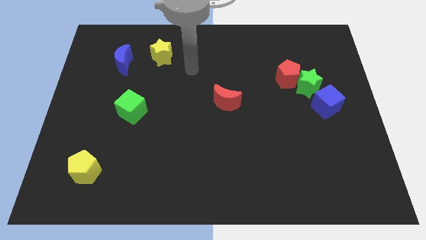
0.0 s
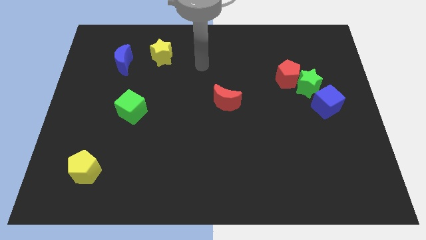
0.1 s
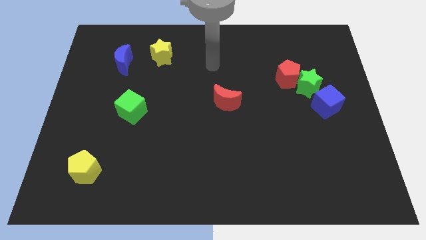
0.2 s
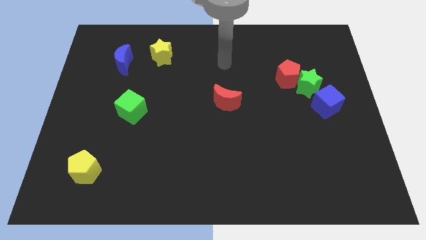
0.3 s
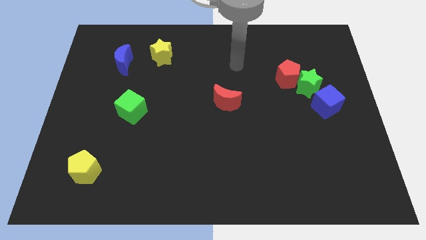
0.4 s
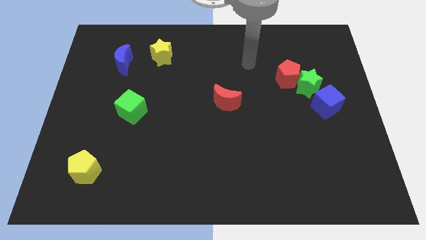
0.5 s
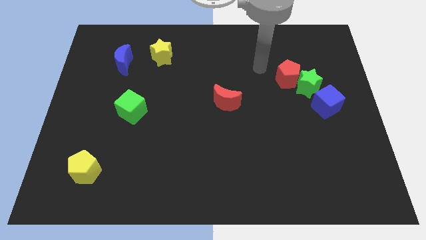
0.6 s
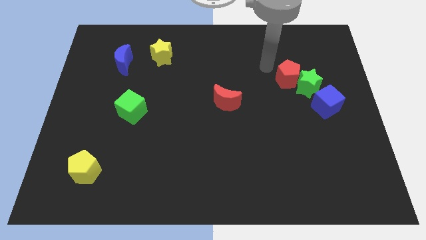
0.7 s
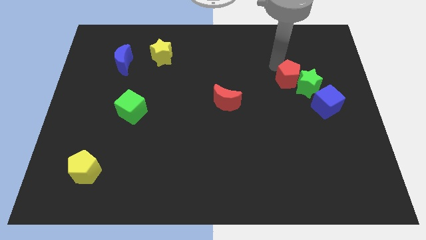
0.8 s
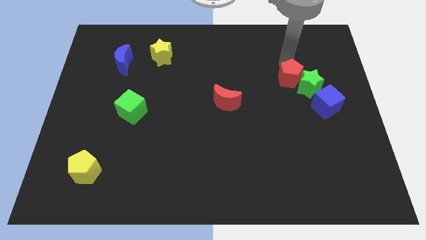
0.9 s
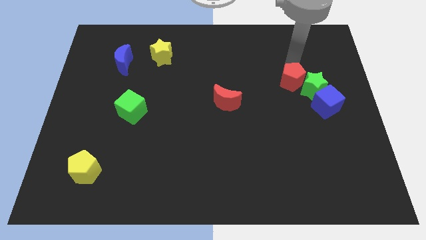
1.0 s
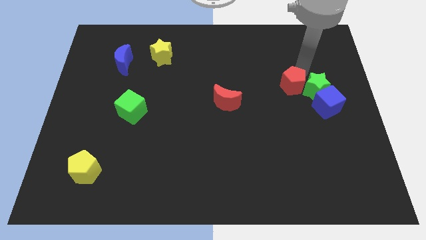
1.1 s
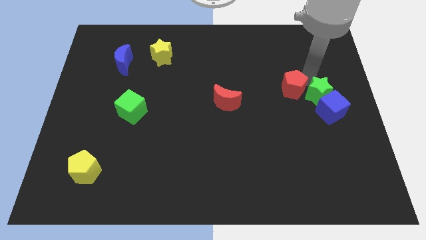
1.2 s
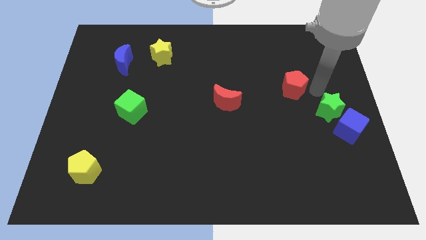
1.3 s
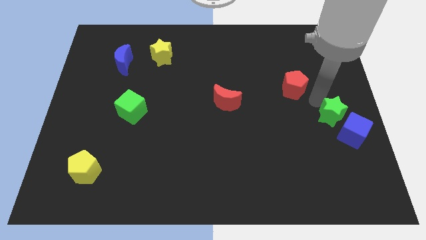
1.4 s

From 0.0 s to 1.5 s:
separate the red pentagon from the green star

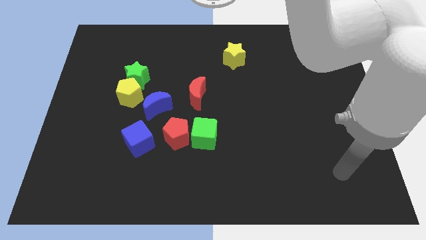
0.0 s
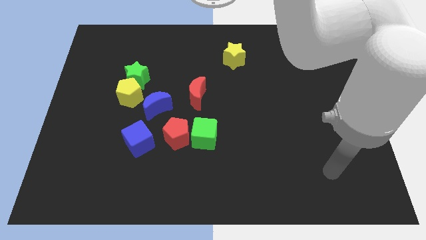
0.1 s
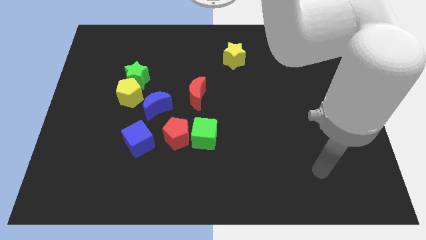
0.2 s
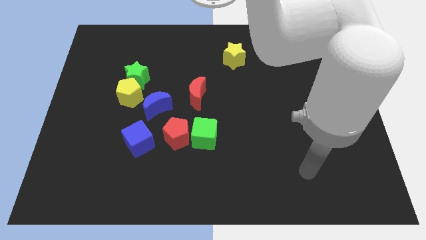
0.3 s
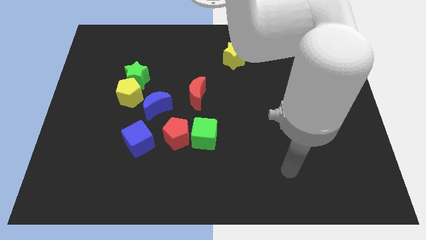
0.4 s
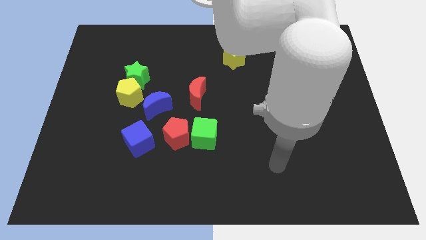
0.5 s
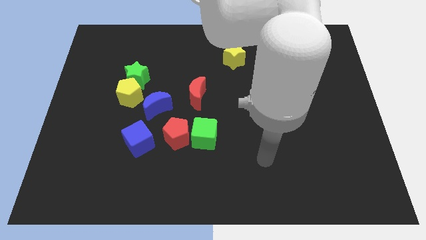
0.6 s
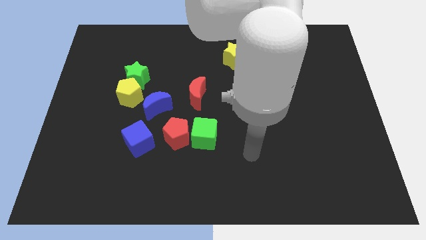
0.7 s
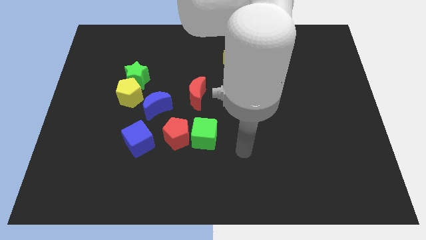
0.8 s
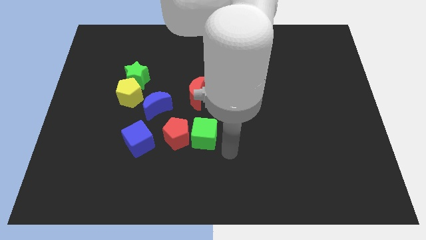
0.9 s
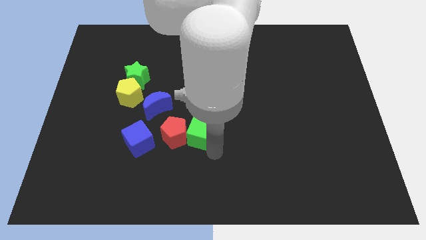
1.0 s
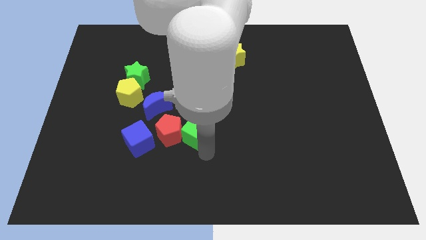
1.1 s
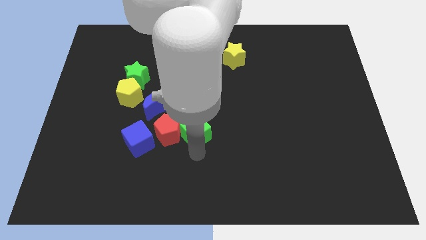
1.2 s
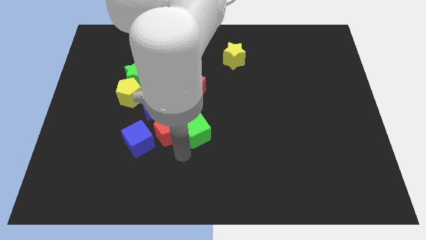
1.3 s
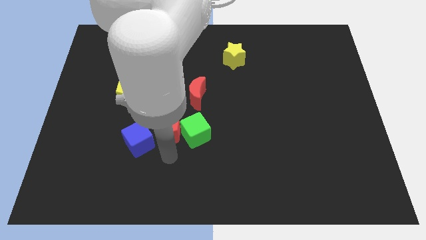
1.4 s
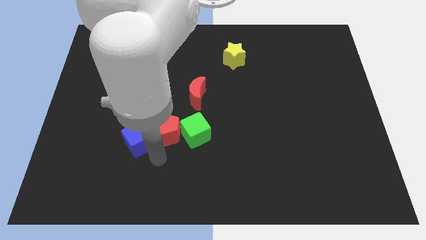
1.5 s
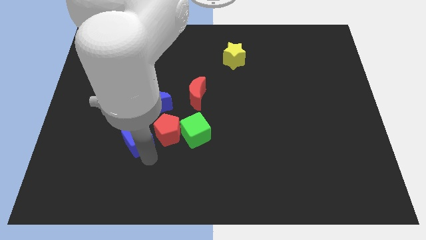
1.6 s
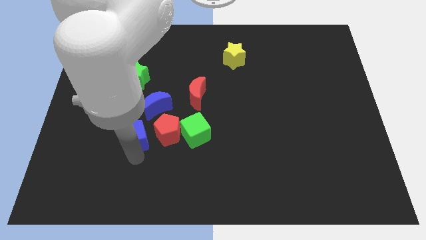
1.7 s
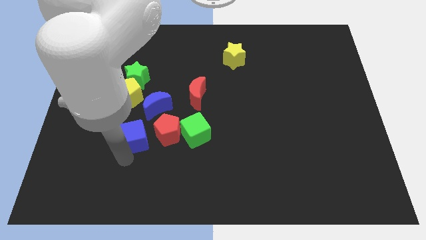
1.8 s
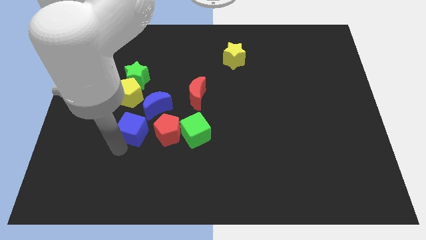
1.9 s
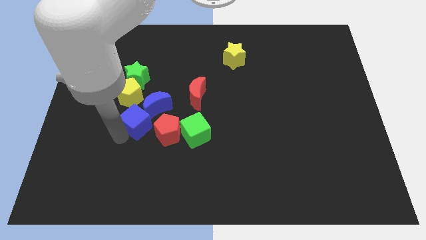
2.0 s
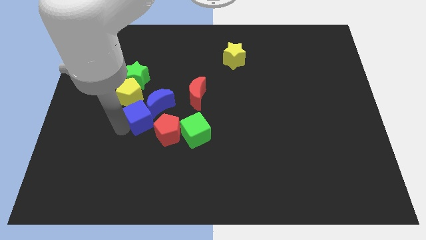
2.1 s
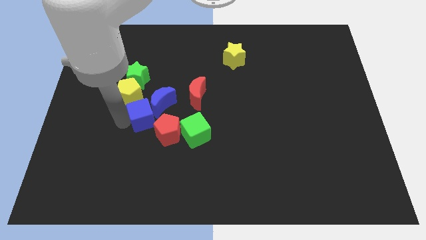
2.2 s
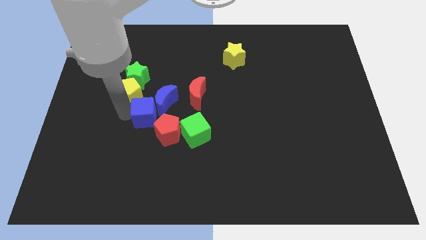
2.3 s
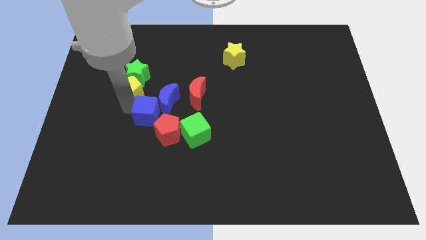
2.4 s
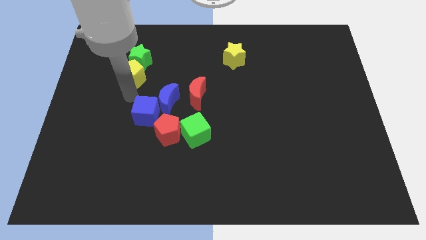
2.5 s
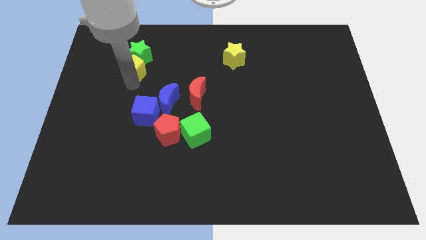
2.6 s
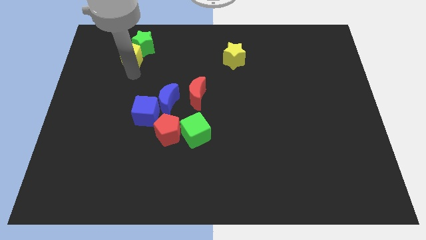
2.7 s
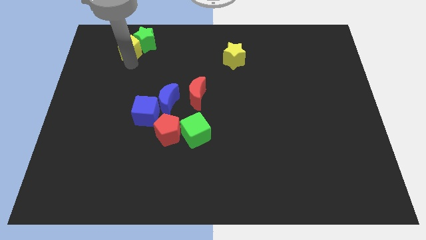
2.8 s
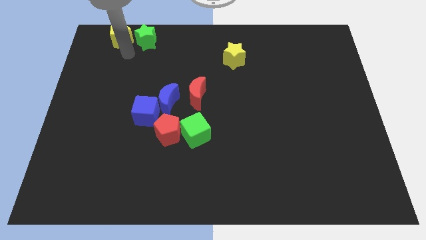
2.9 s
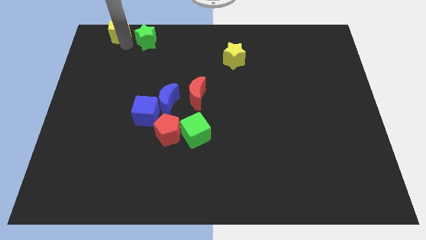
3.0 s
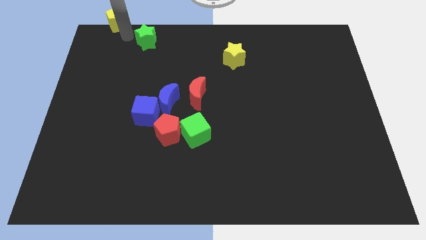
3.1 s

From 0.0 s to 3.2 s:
move the green star away from the yellow pentagon

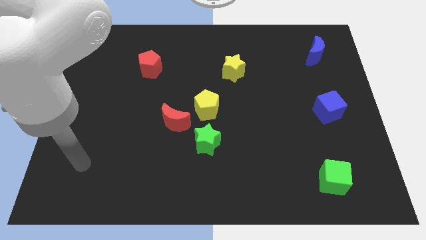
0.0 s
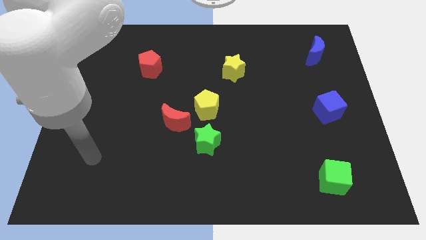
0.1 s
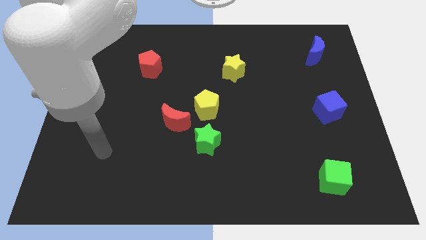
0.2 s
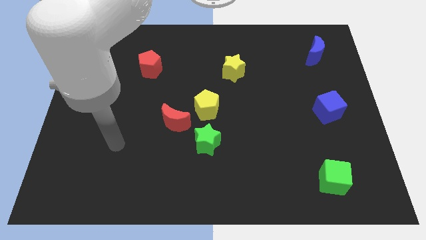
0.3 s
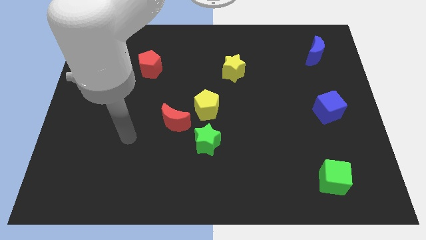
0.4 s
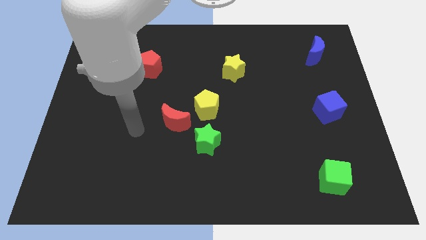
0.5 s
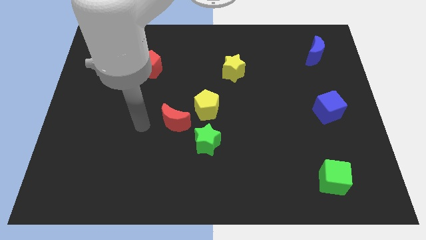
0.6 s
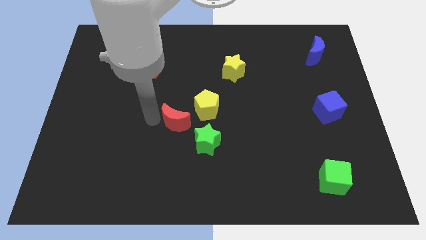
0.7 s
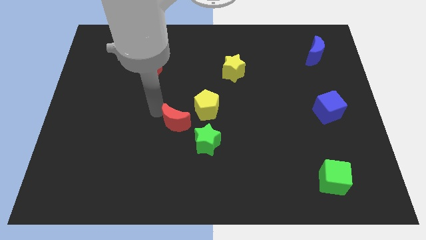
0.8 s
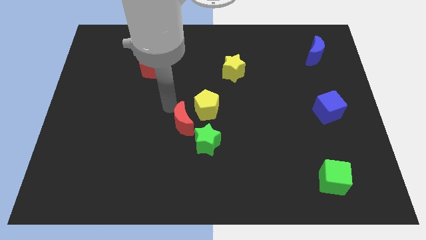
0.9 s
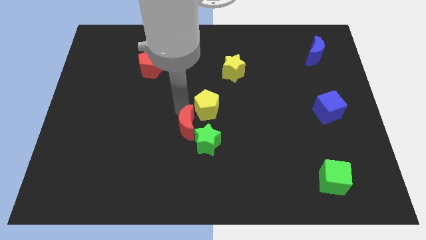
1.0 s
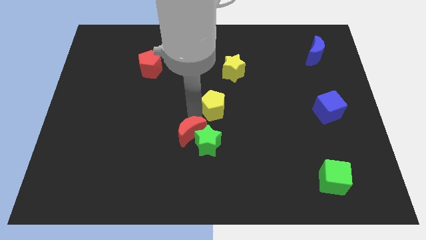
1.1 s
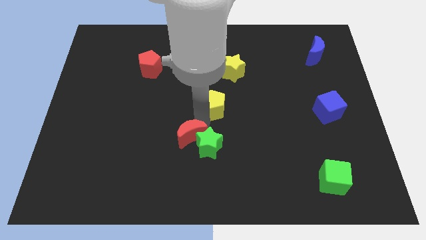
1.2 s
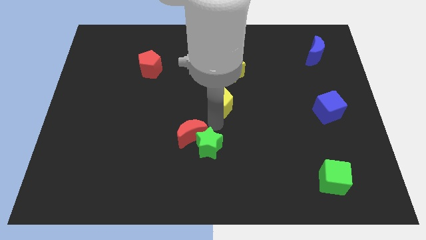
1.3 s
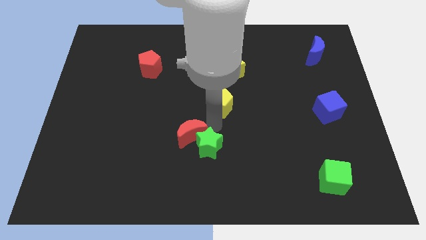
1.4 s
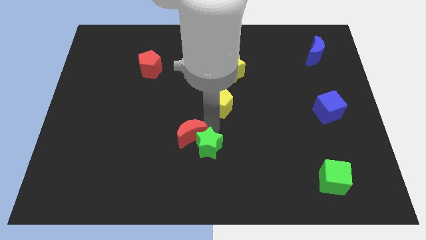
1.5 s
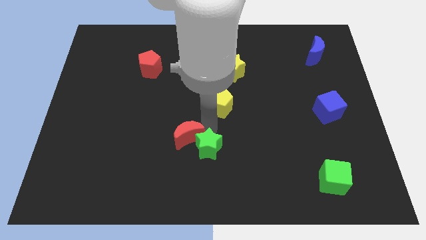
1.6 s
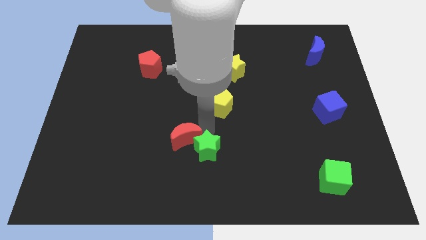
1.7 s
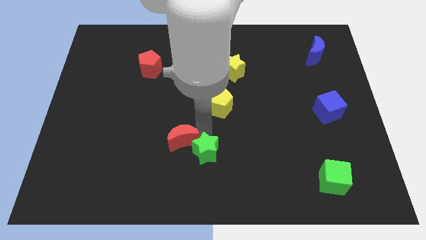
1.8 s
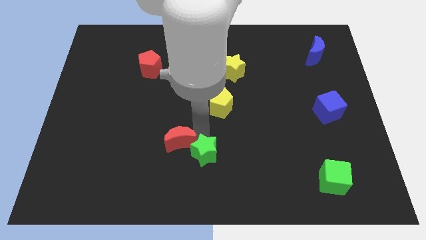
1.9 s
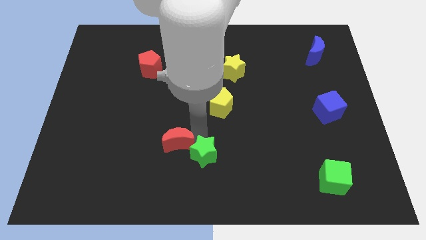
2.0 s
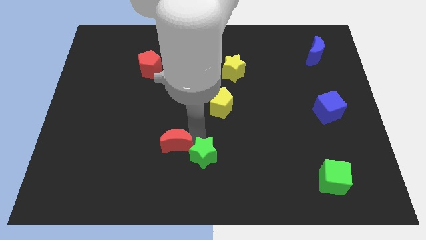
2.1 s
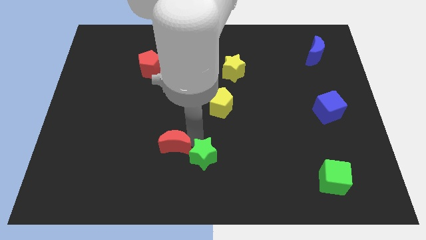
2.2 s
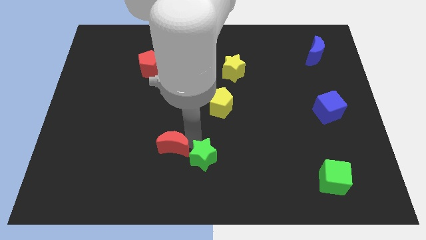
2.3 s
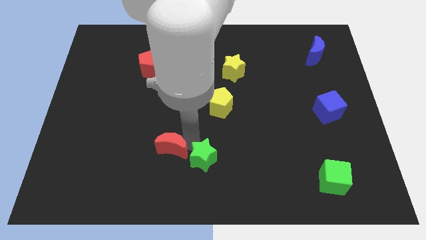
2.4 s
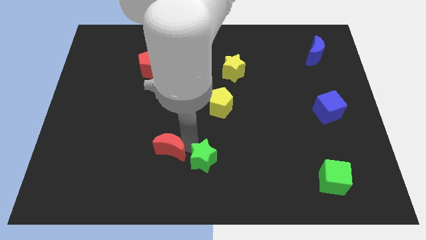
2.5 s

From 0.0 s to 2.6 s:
move the red moon away from the yellow pentagon and green star

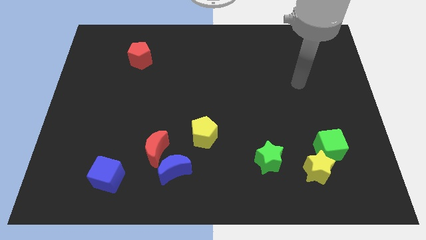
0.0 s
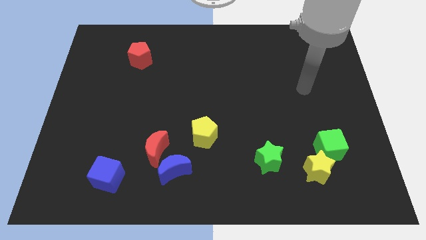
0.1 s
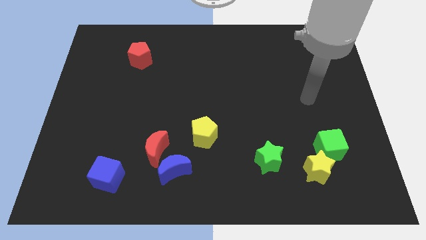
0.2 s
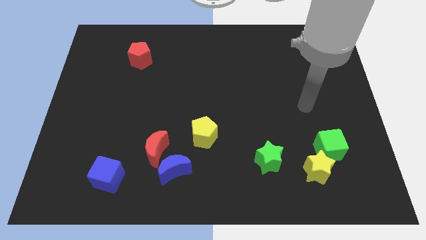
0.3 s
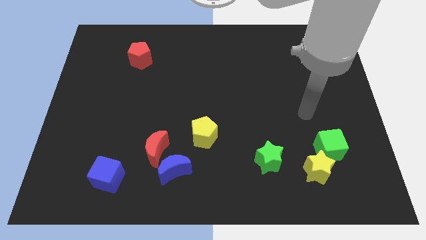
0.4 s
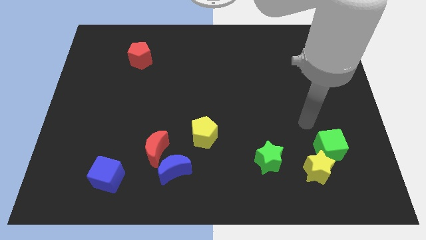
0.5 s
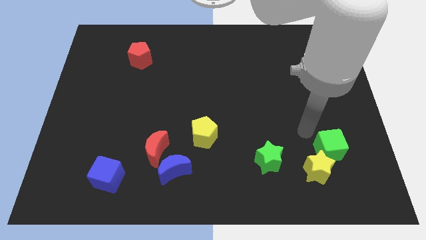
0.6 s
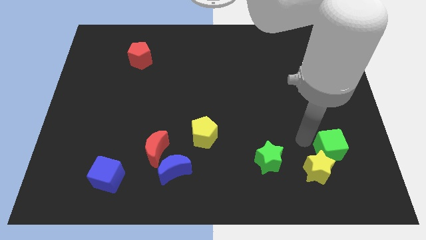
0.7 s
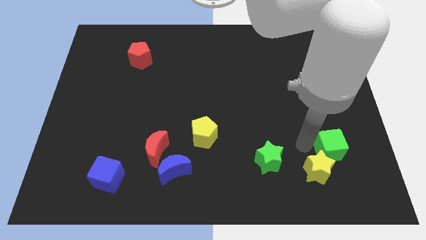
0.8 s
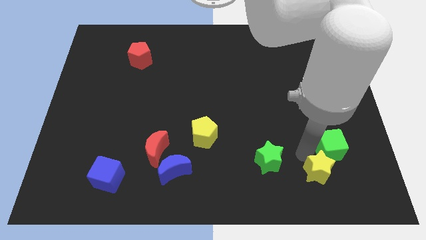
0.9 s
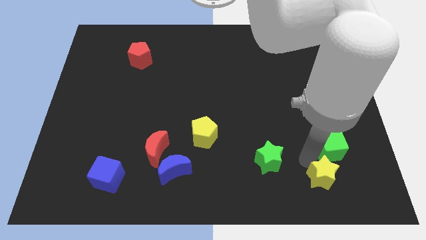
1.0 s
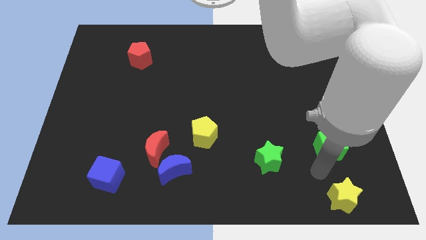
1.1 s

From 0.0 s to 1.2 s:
pull the green cube apart from the yellow star

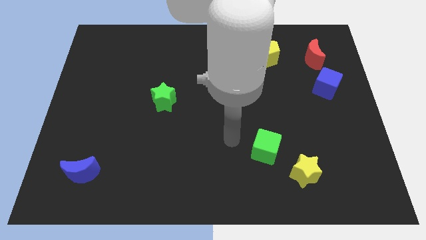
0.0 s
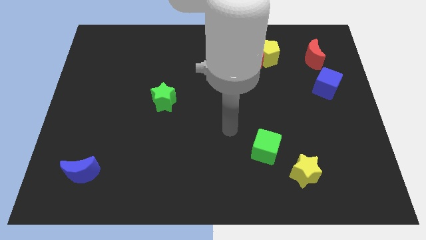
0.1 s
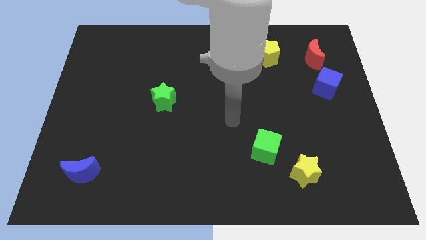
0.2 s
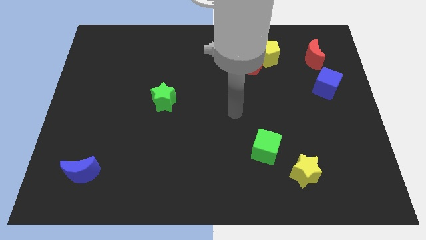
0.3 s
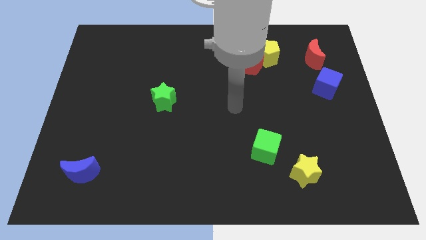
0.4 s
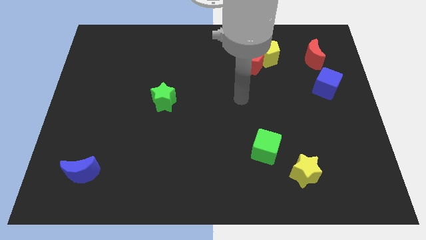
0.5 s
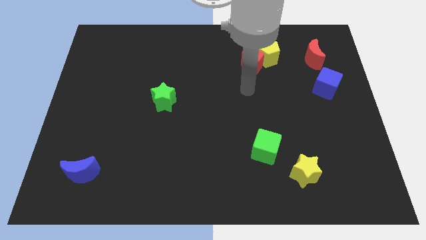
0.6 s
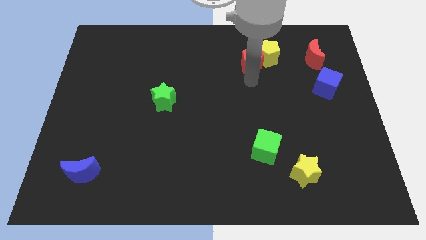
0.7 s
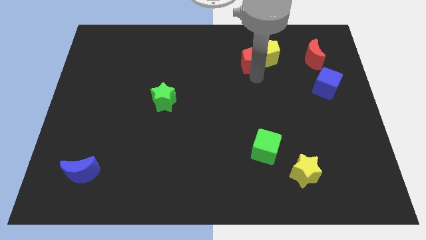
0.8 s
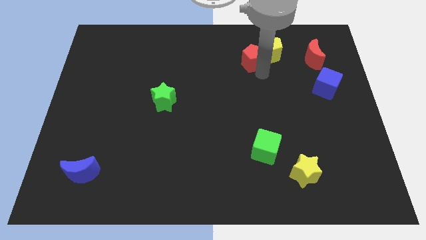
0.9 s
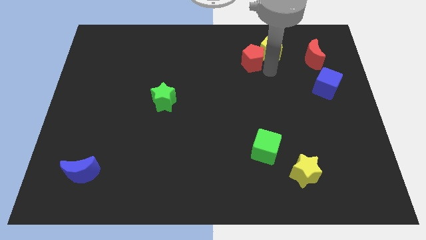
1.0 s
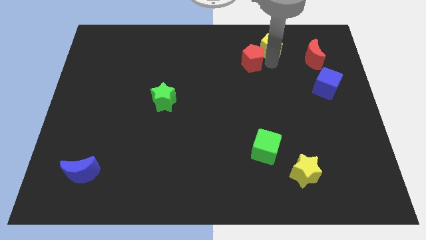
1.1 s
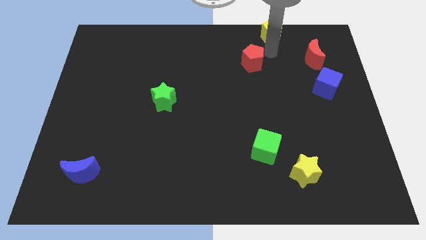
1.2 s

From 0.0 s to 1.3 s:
separate the red pentagon from the yellow pentagon
